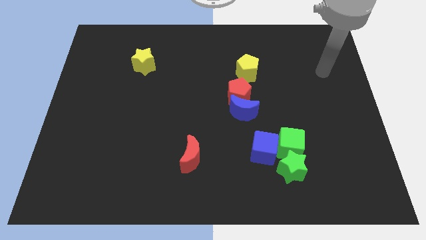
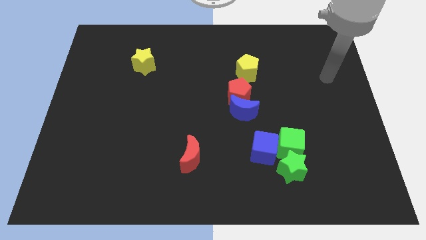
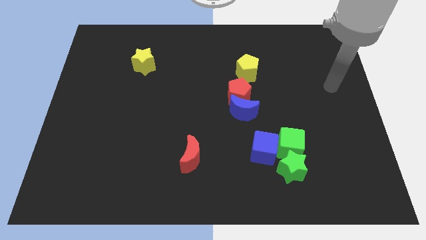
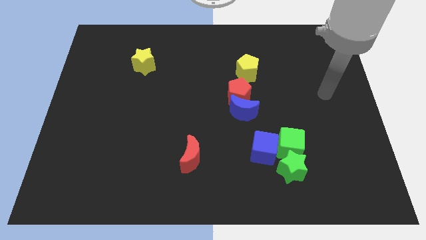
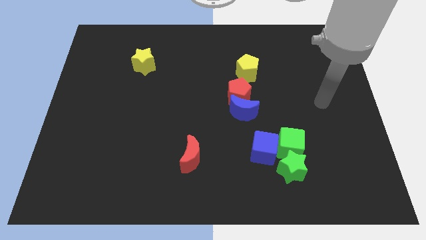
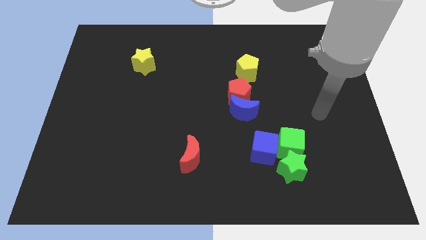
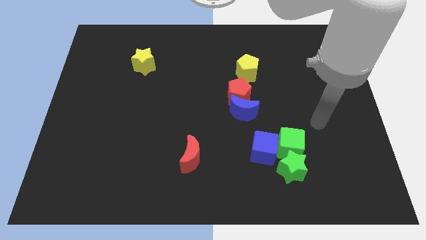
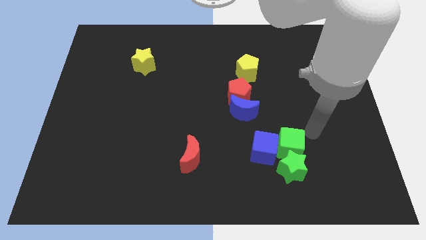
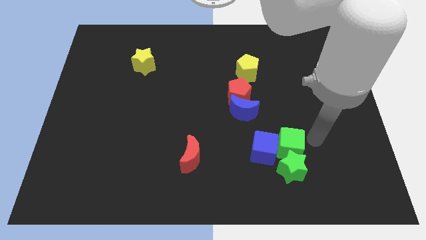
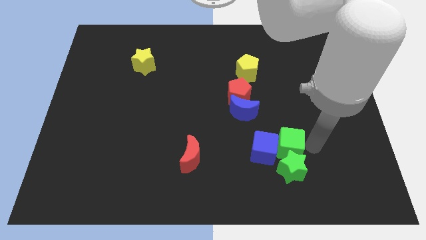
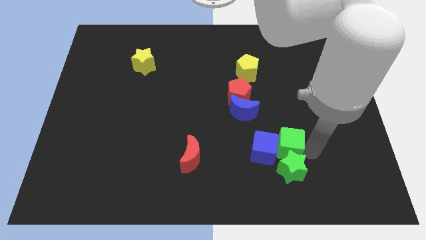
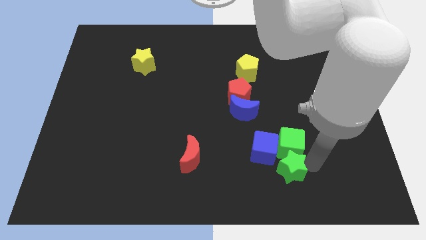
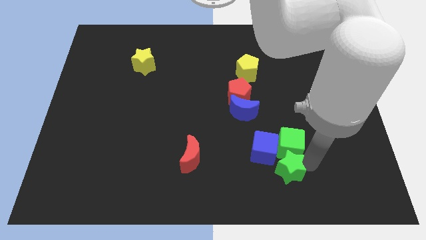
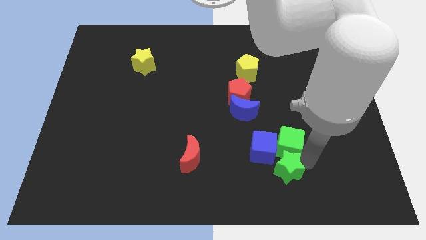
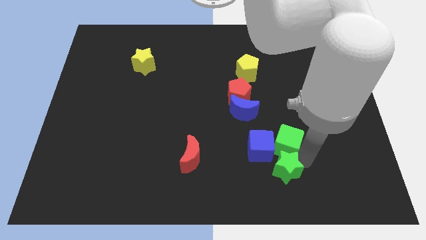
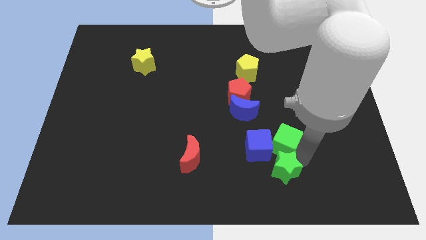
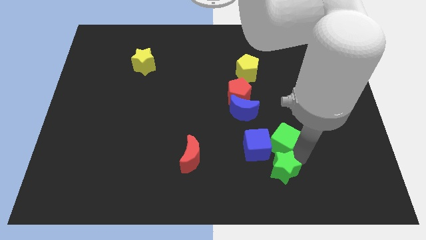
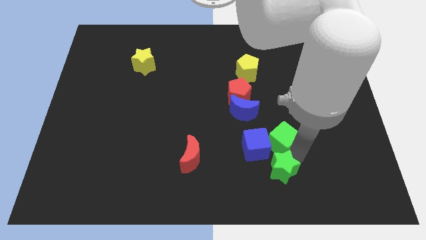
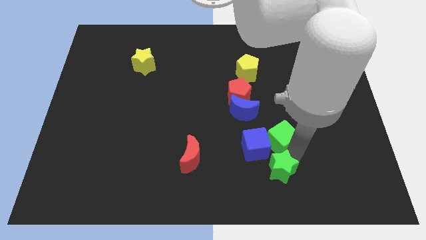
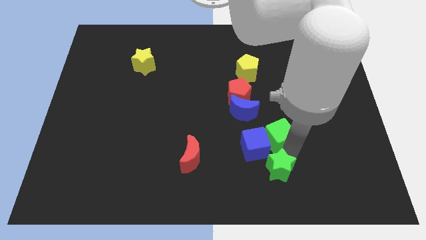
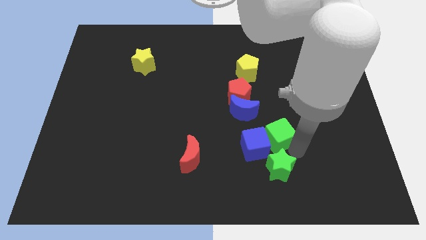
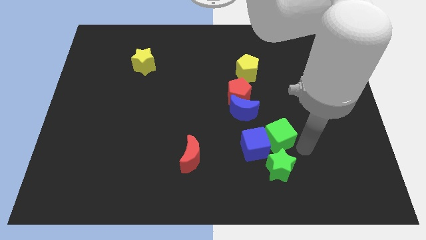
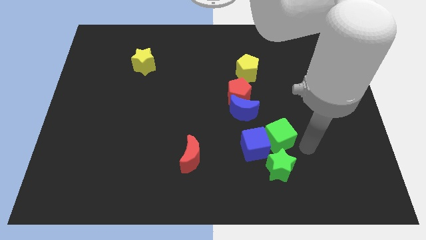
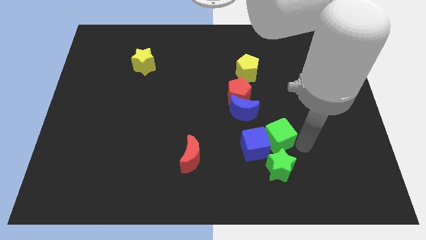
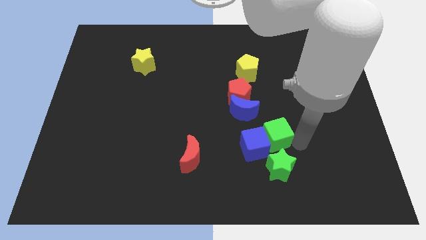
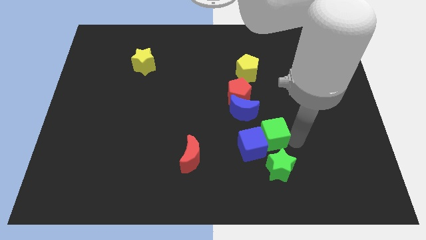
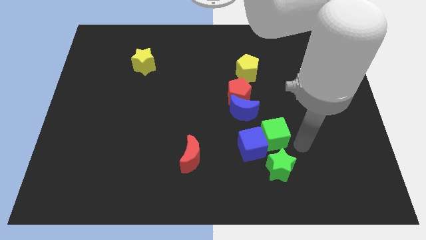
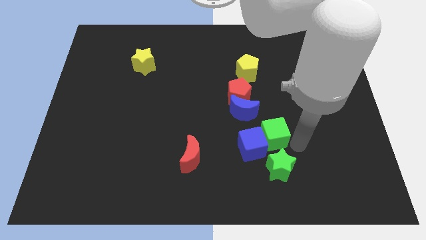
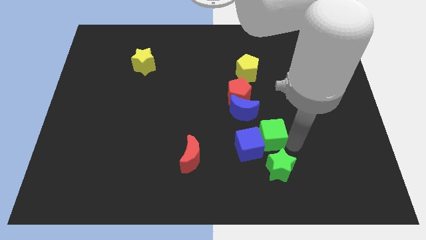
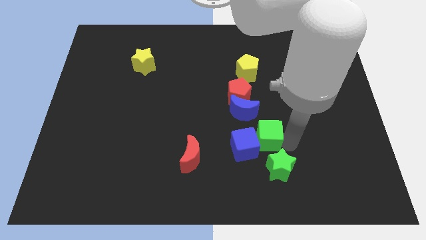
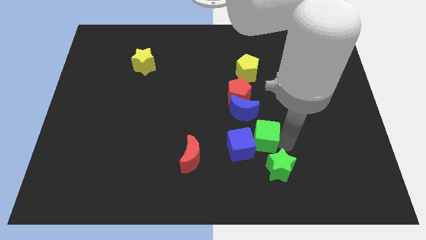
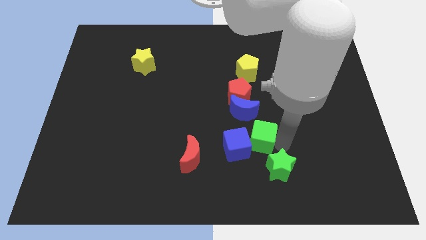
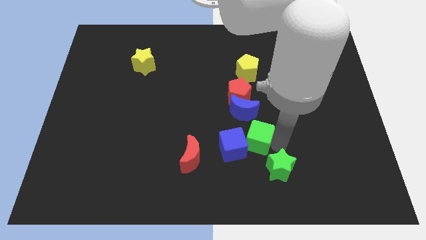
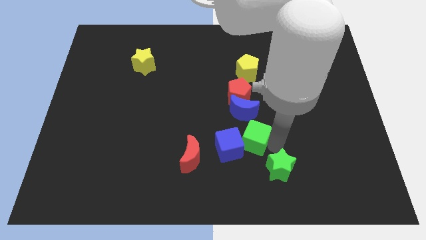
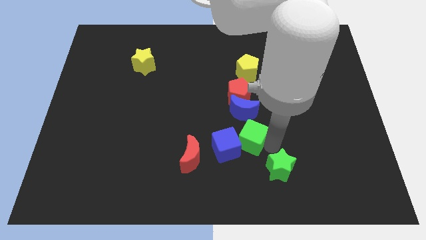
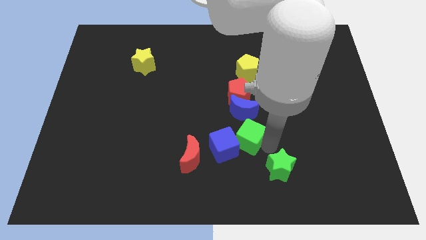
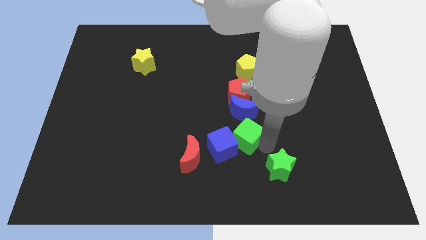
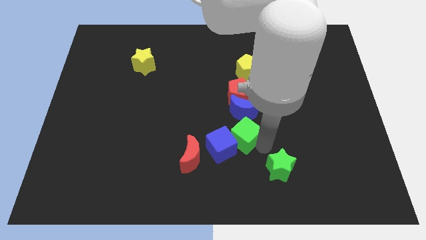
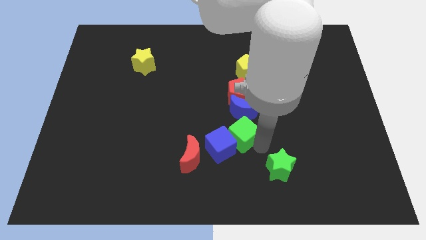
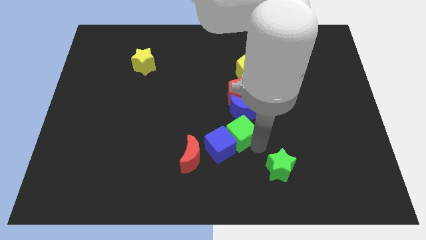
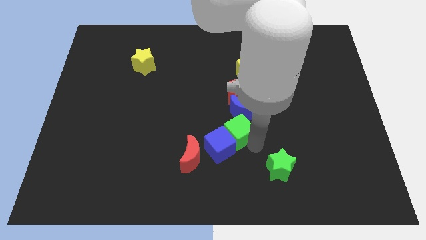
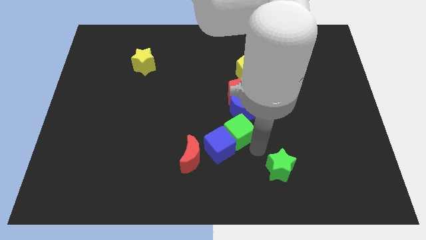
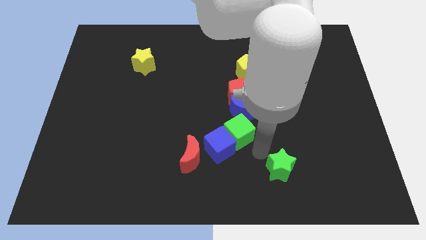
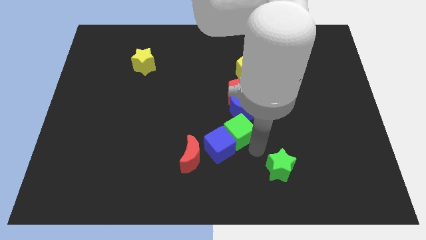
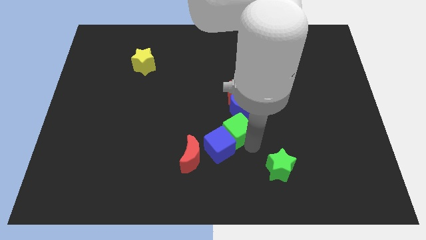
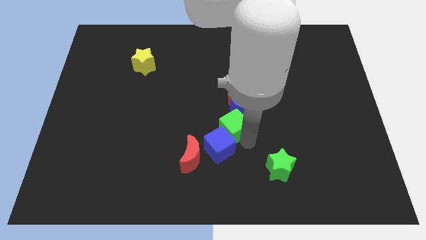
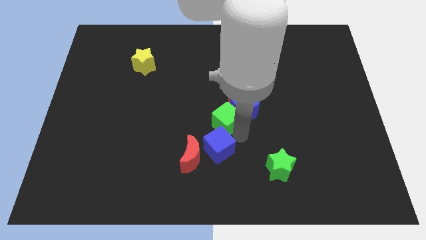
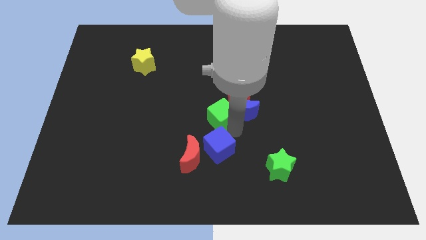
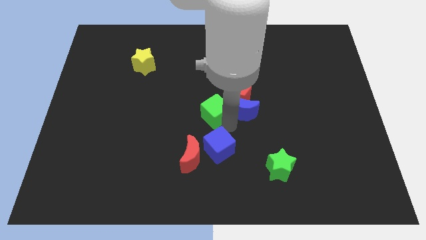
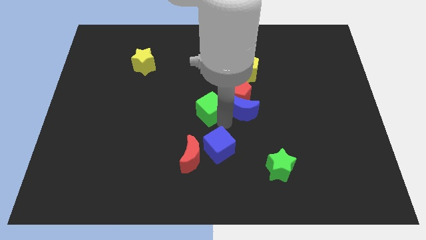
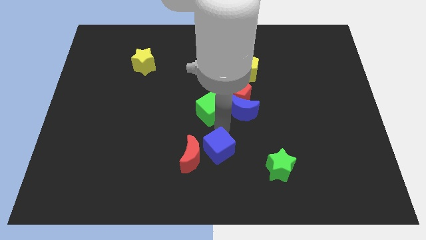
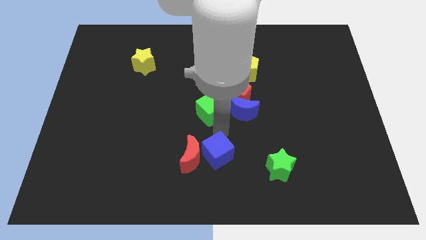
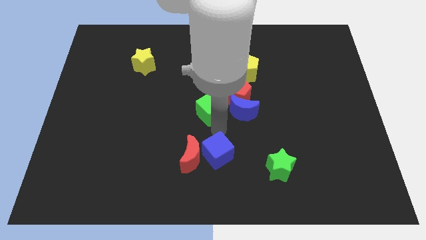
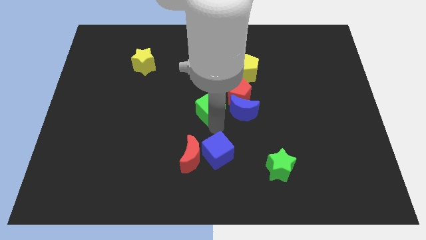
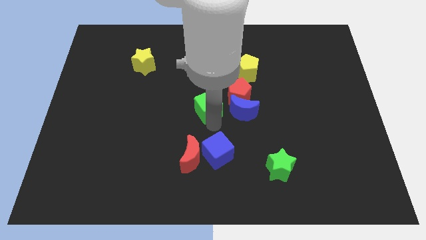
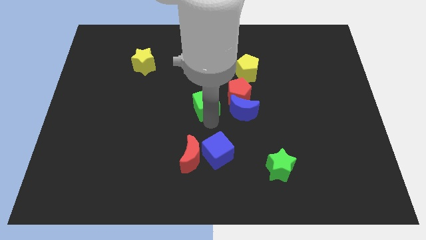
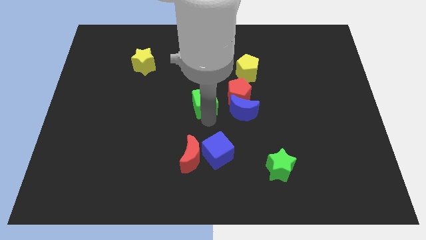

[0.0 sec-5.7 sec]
push the green cube diagonally upwards and to the left

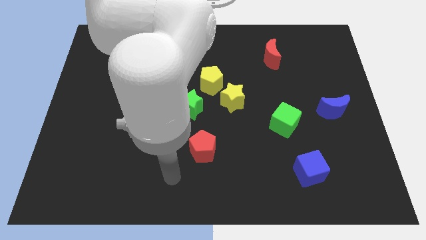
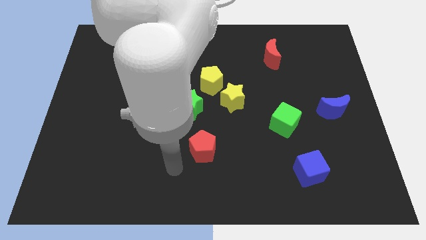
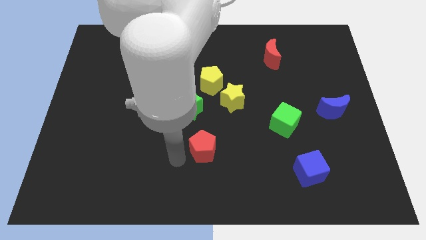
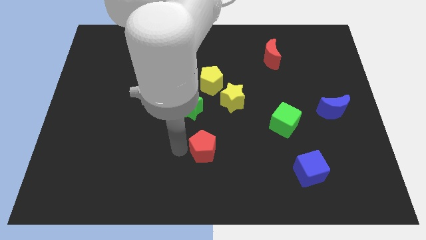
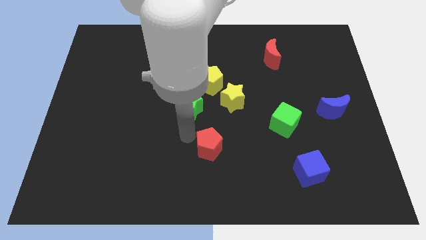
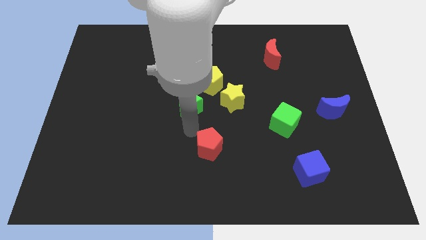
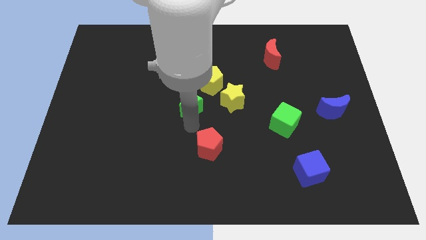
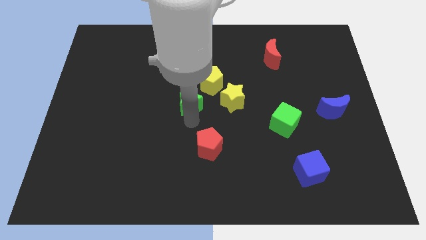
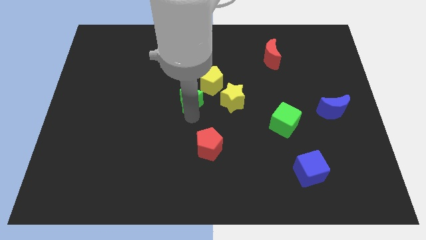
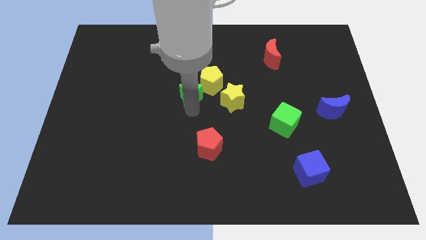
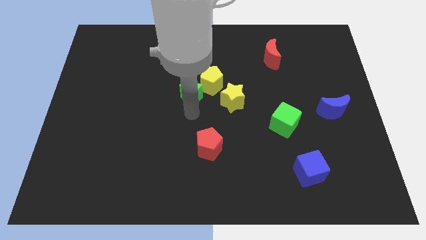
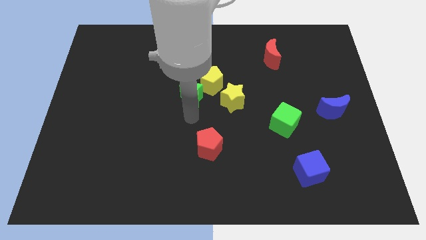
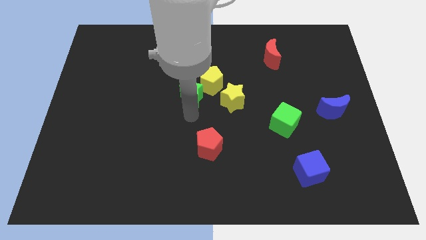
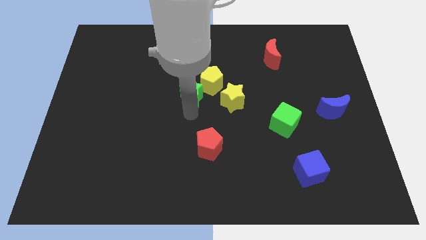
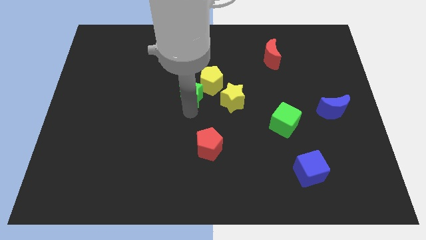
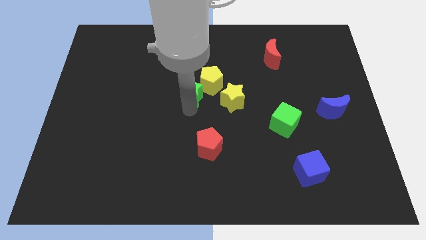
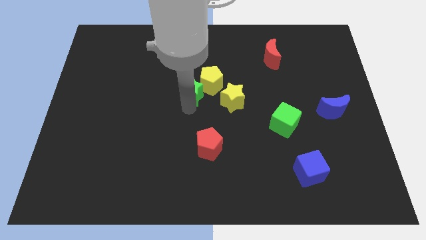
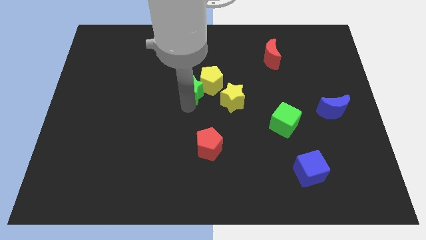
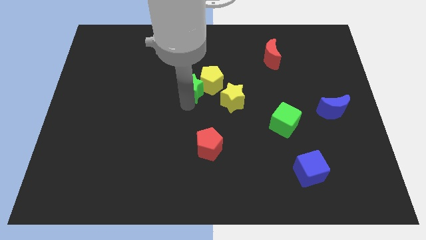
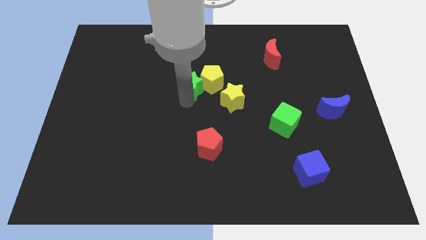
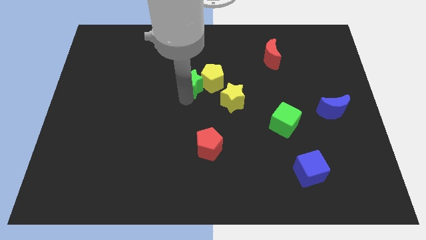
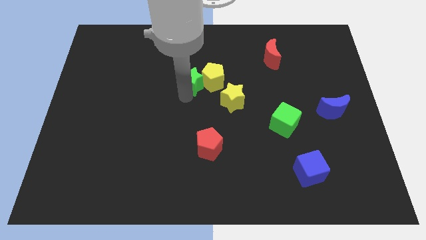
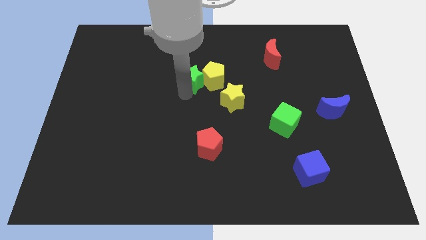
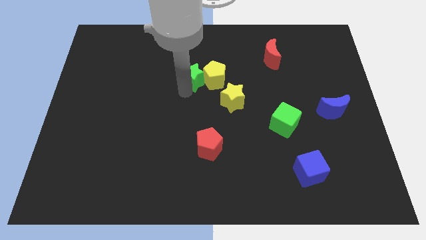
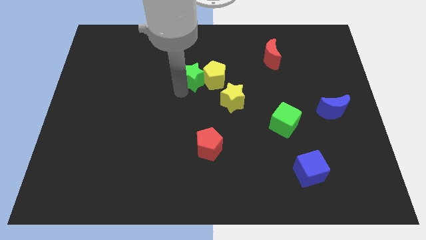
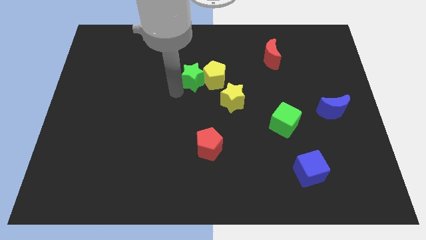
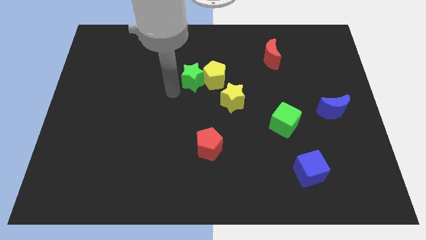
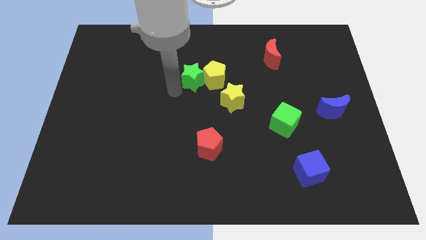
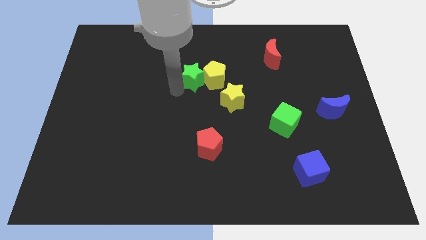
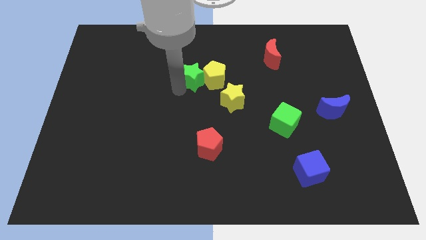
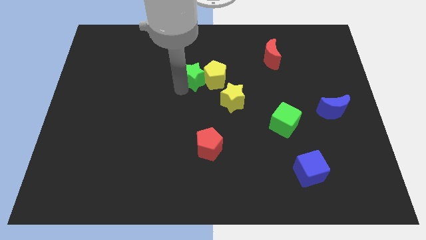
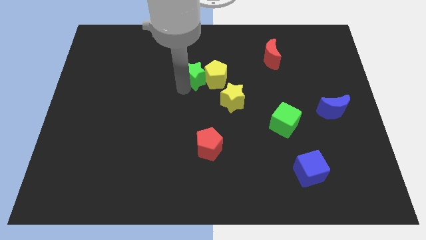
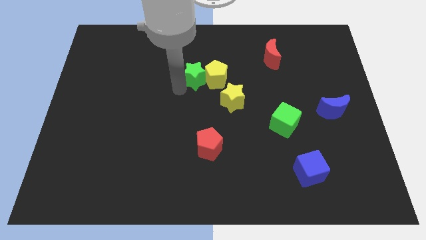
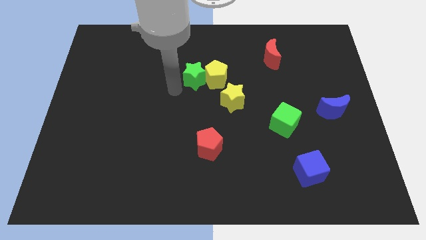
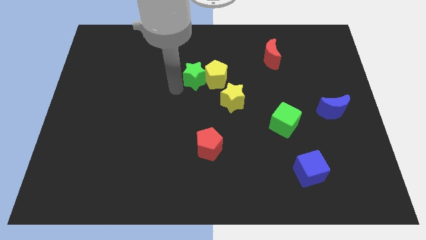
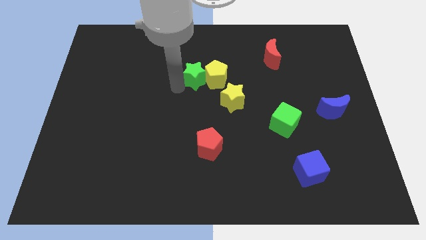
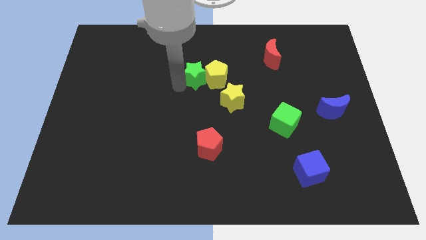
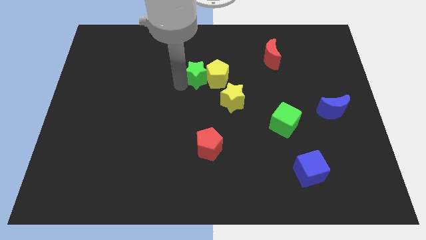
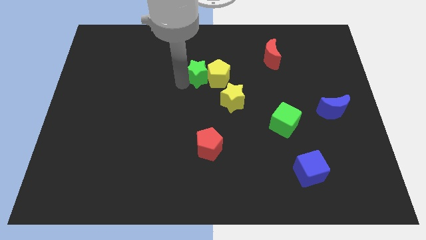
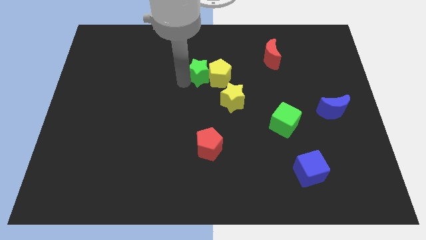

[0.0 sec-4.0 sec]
slightly push the green star up and to the right diagonally
